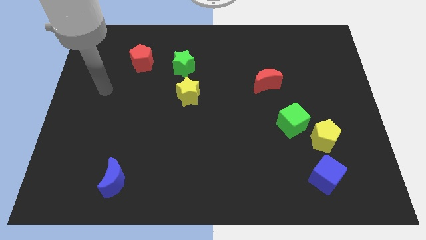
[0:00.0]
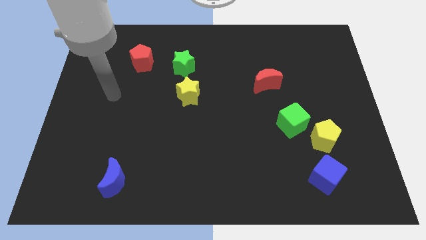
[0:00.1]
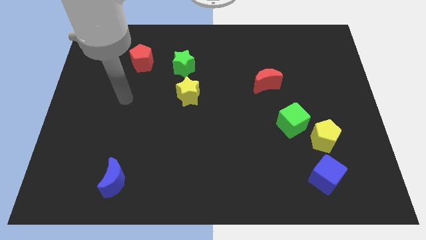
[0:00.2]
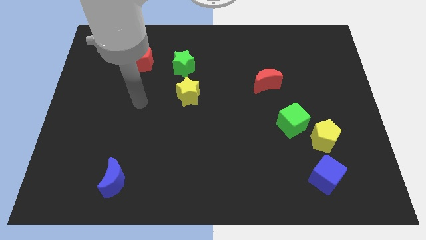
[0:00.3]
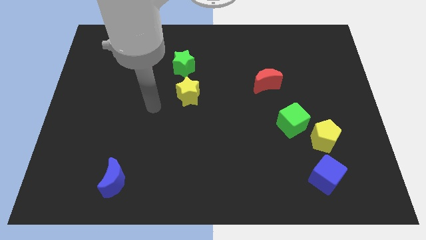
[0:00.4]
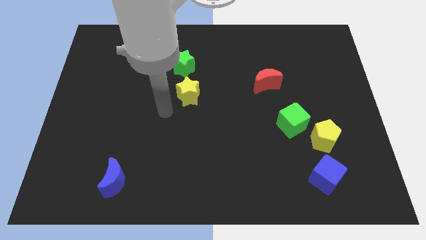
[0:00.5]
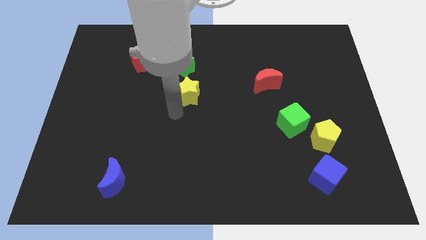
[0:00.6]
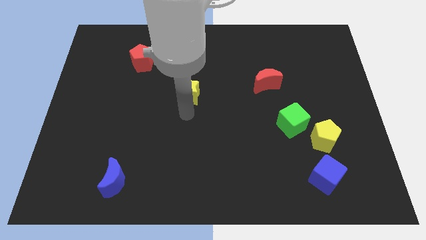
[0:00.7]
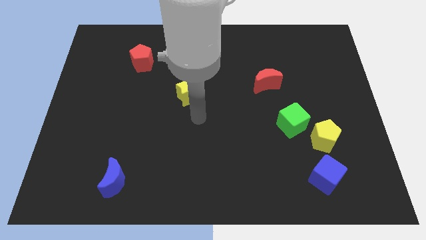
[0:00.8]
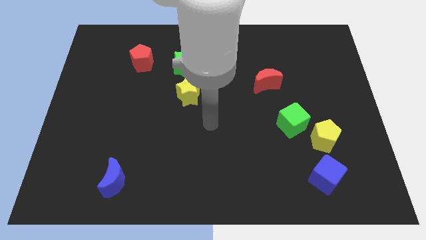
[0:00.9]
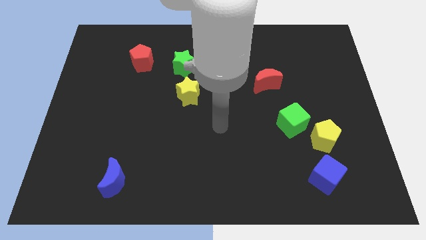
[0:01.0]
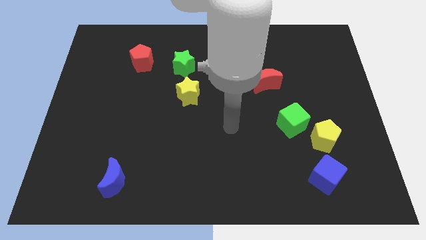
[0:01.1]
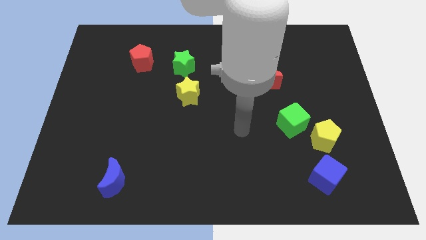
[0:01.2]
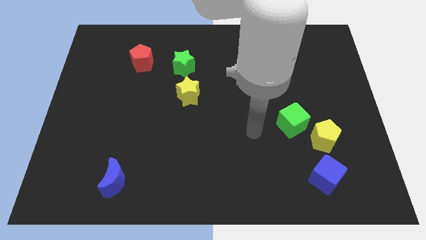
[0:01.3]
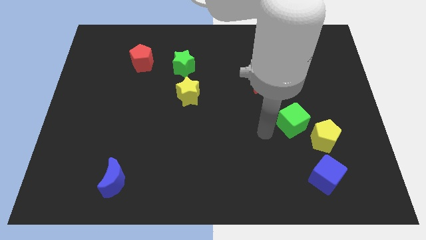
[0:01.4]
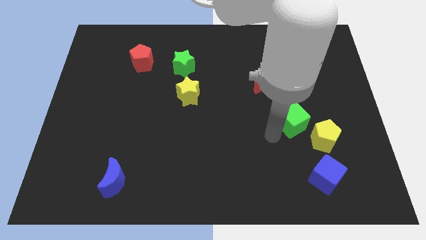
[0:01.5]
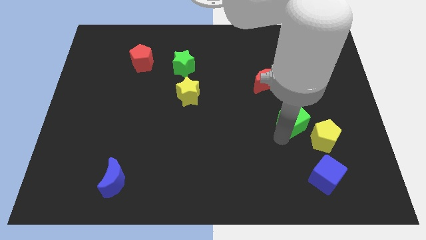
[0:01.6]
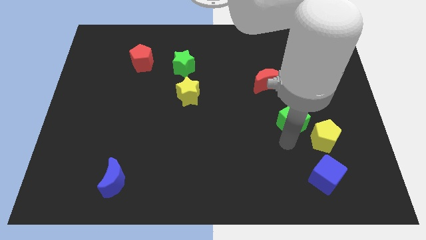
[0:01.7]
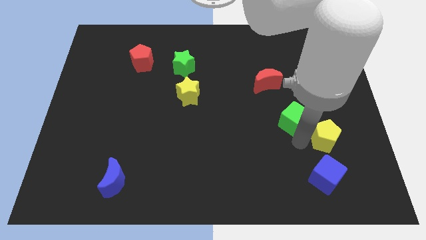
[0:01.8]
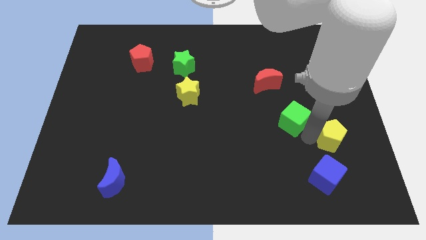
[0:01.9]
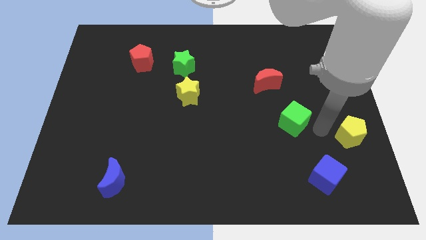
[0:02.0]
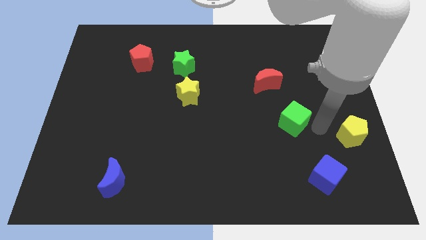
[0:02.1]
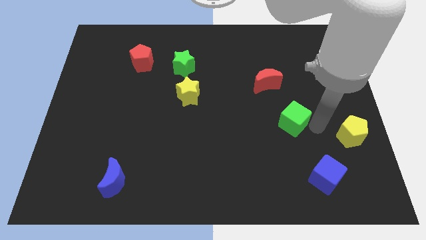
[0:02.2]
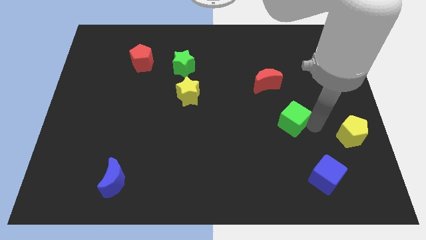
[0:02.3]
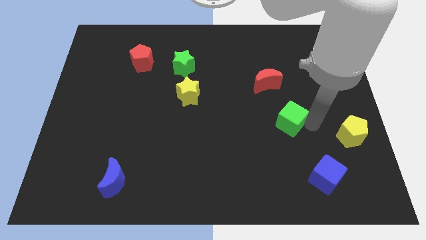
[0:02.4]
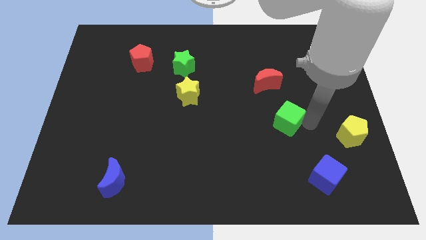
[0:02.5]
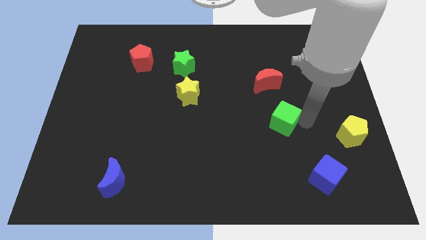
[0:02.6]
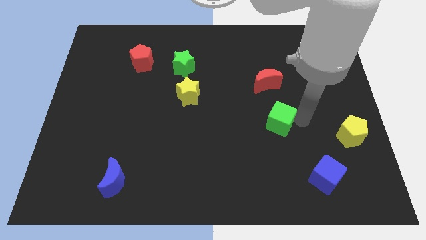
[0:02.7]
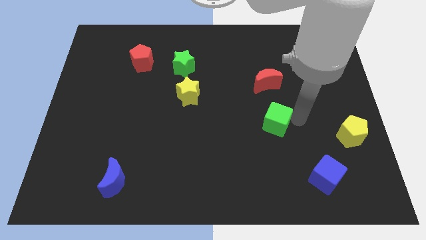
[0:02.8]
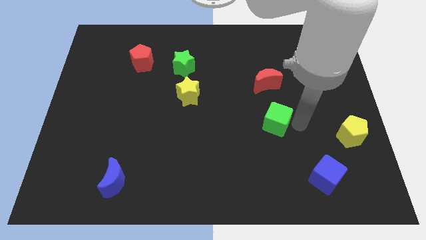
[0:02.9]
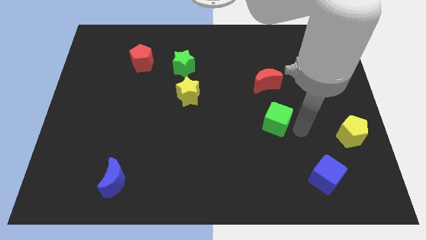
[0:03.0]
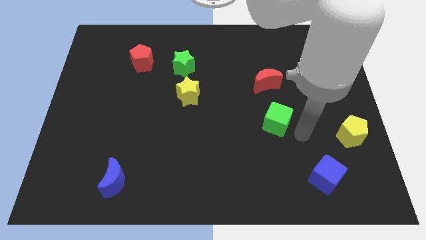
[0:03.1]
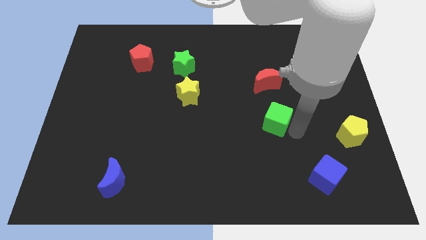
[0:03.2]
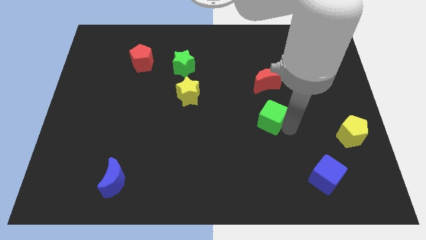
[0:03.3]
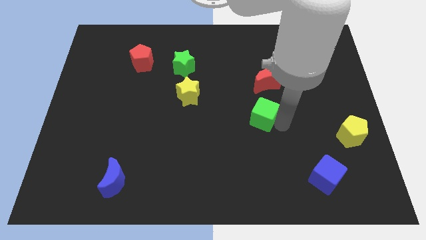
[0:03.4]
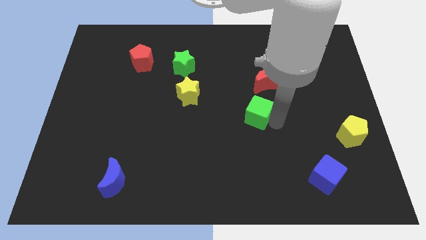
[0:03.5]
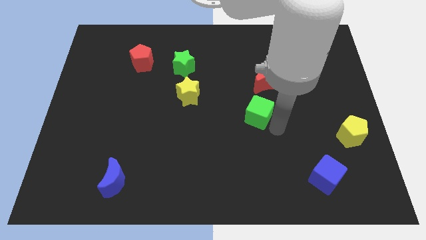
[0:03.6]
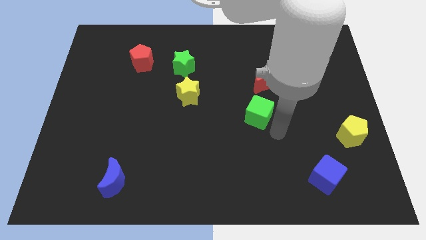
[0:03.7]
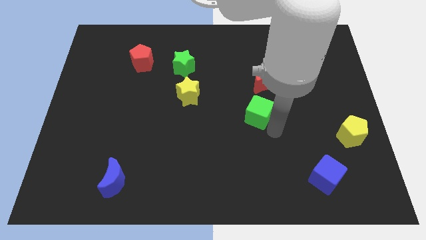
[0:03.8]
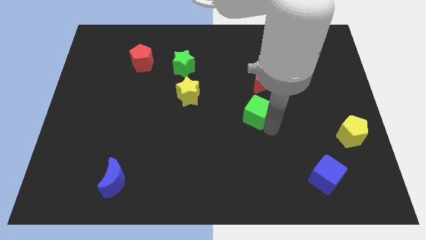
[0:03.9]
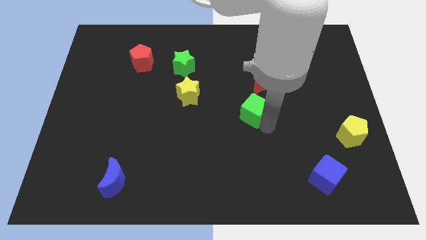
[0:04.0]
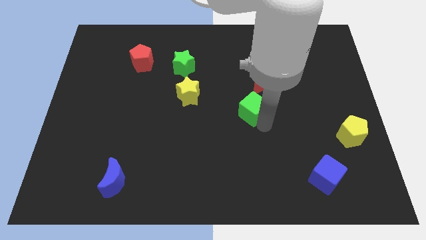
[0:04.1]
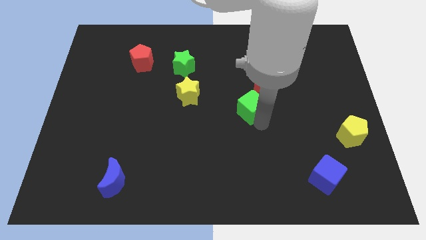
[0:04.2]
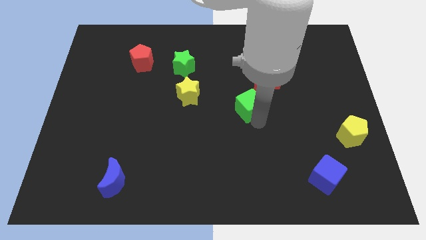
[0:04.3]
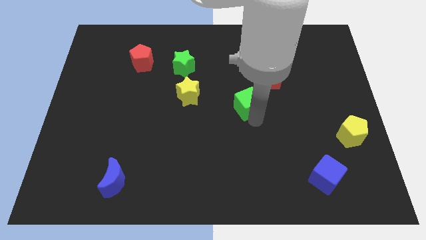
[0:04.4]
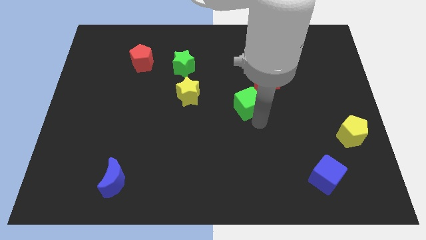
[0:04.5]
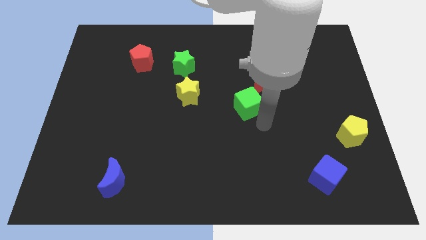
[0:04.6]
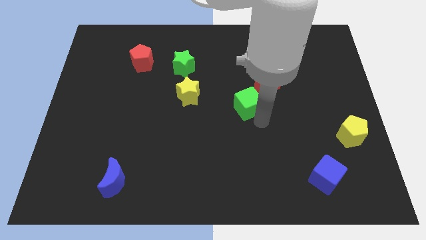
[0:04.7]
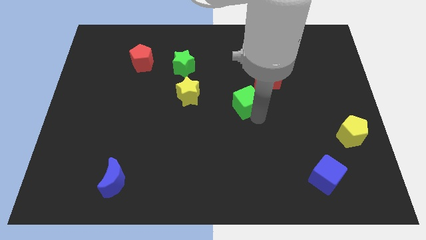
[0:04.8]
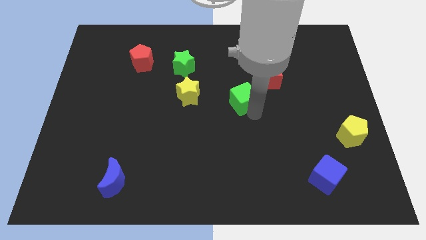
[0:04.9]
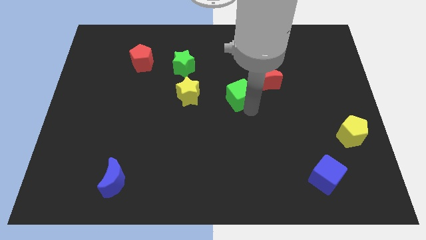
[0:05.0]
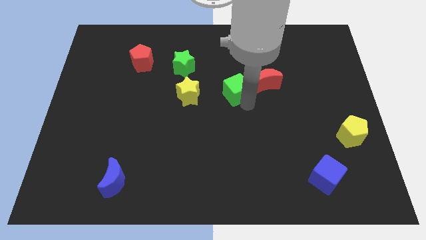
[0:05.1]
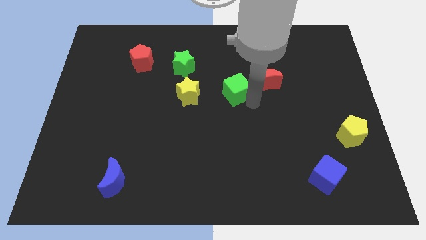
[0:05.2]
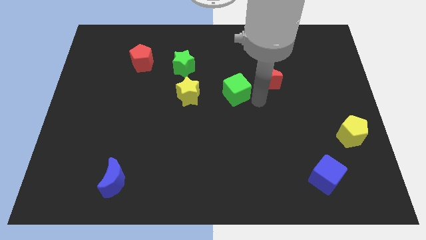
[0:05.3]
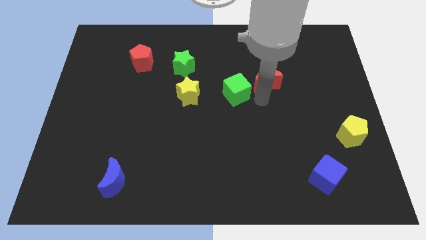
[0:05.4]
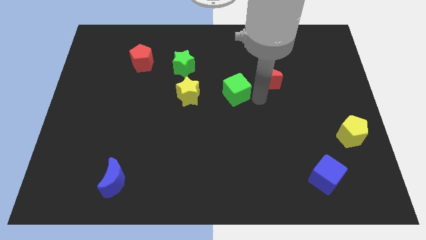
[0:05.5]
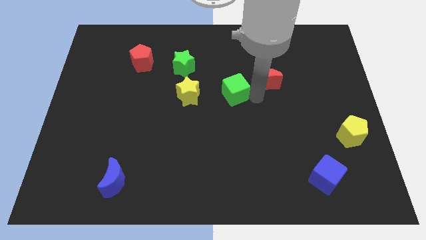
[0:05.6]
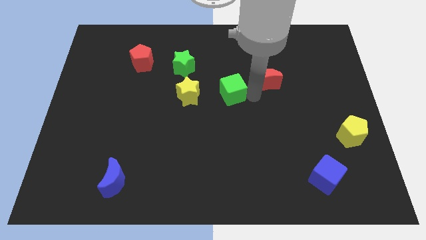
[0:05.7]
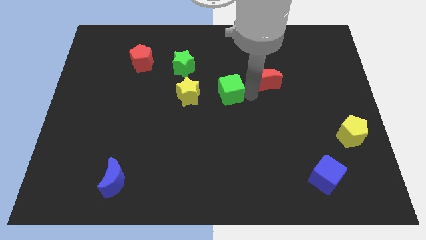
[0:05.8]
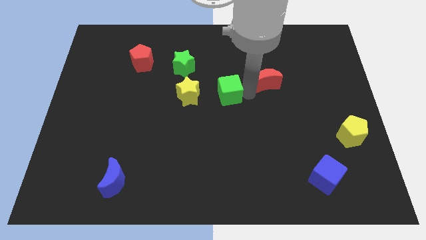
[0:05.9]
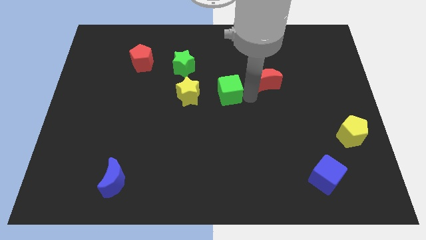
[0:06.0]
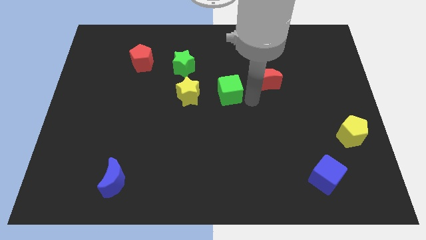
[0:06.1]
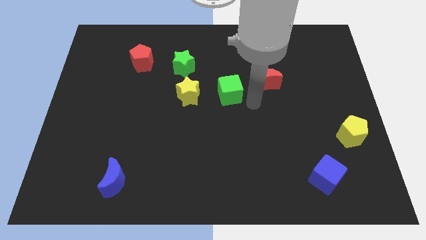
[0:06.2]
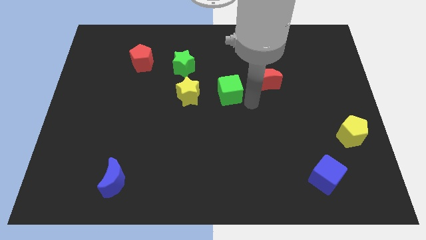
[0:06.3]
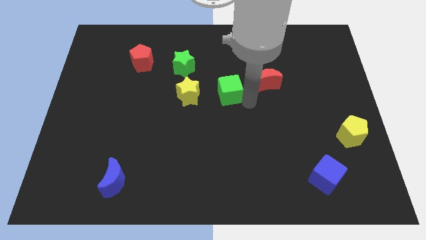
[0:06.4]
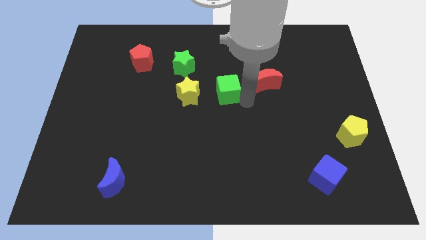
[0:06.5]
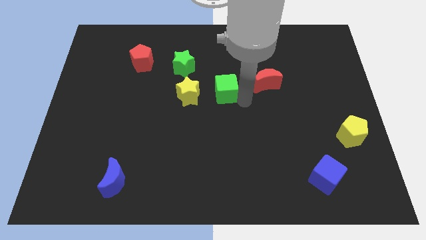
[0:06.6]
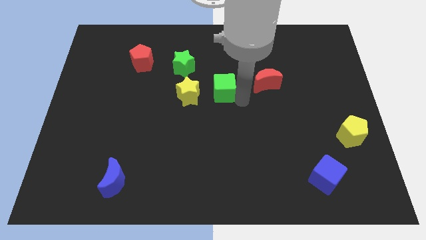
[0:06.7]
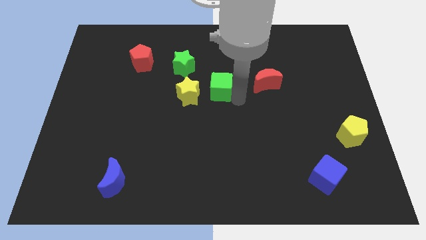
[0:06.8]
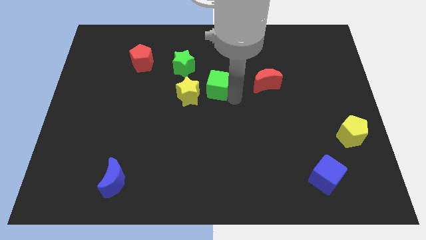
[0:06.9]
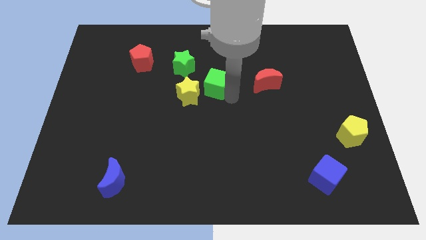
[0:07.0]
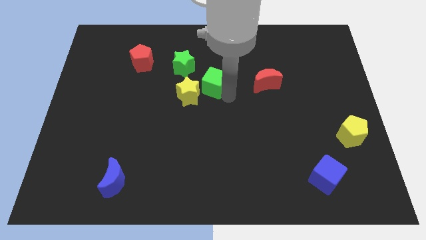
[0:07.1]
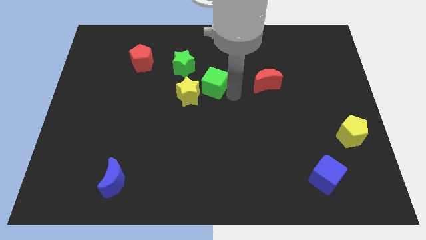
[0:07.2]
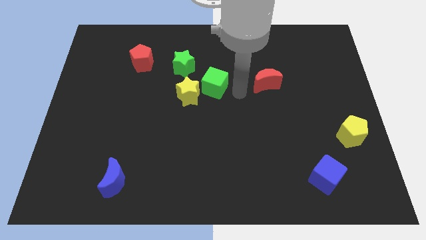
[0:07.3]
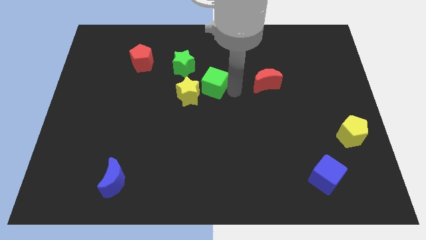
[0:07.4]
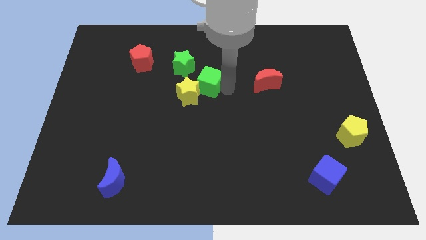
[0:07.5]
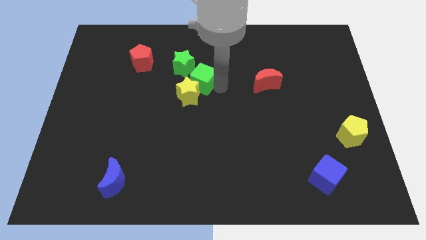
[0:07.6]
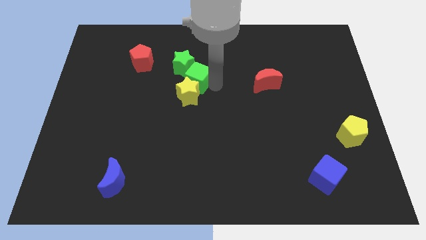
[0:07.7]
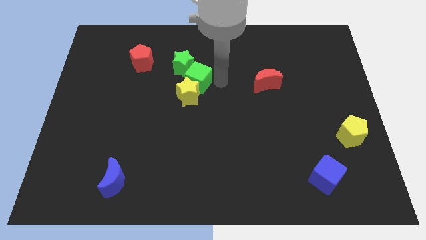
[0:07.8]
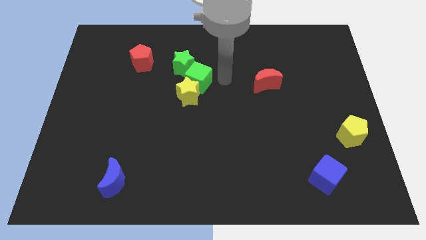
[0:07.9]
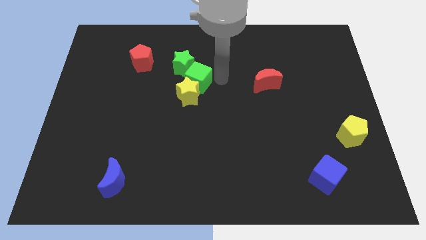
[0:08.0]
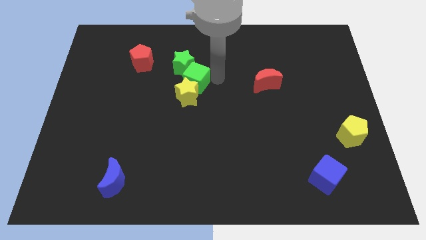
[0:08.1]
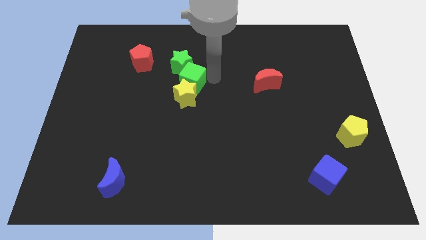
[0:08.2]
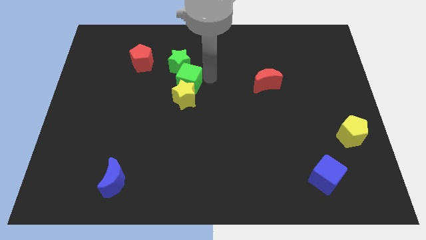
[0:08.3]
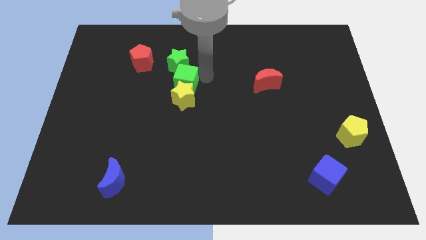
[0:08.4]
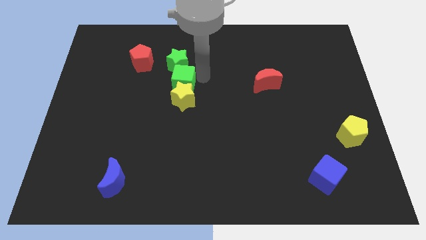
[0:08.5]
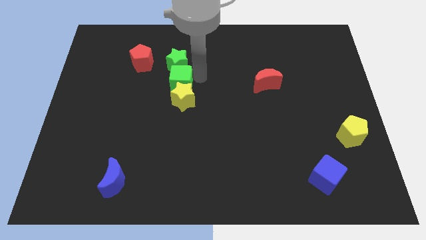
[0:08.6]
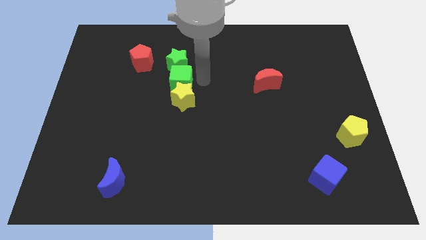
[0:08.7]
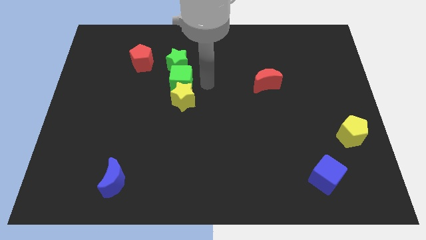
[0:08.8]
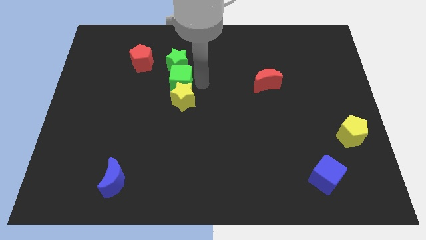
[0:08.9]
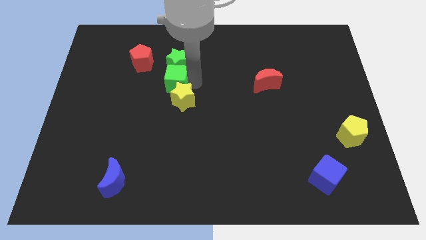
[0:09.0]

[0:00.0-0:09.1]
move the green cube diagonally down and to the left of the green star
